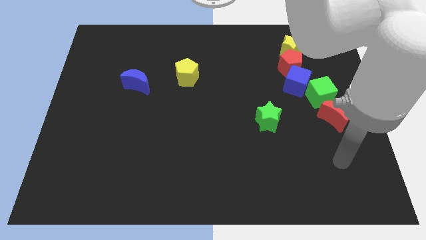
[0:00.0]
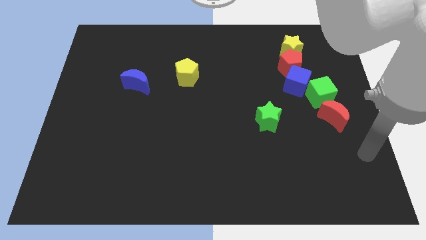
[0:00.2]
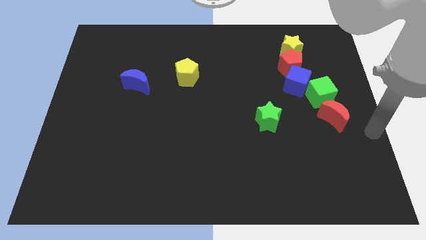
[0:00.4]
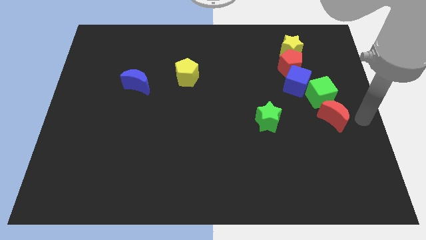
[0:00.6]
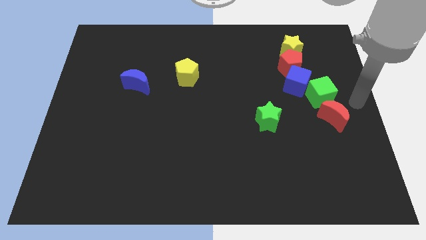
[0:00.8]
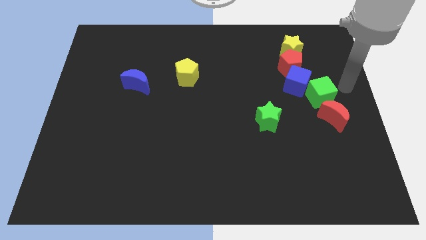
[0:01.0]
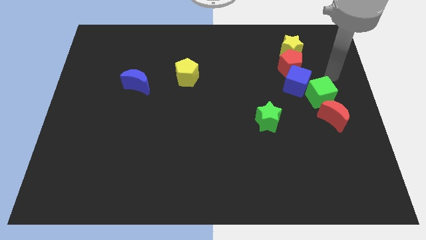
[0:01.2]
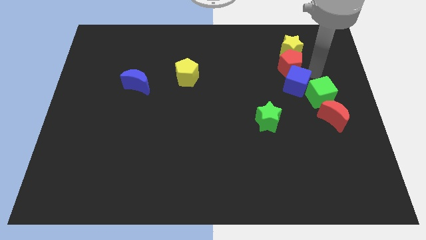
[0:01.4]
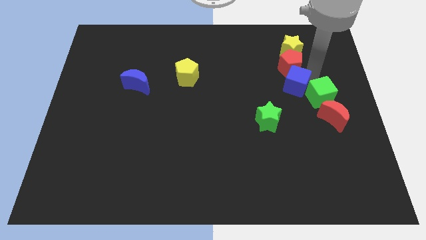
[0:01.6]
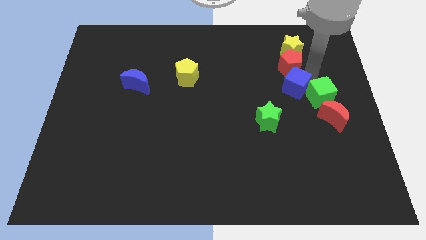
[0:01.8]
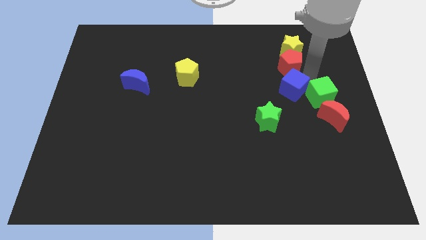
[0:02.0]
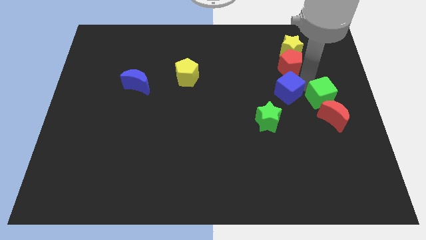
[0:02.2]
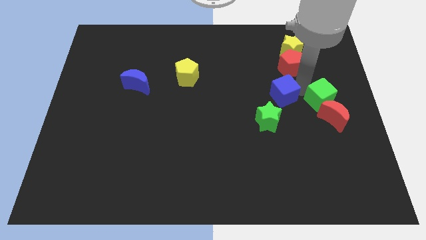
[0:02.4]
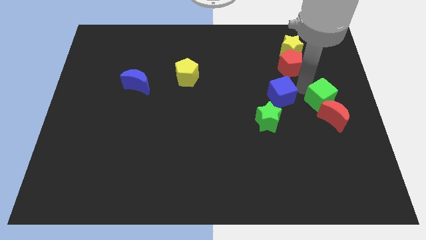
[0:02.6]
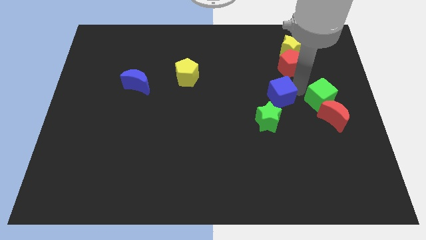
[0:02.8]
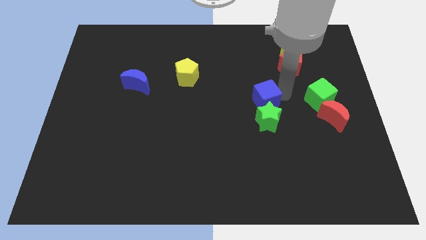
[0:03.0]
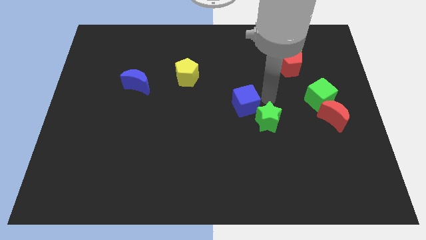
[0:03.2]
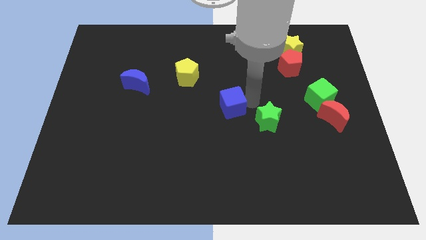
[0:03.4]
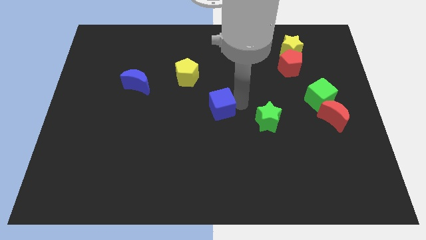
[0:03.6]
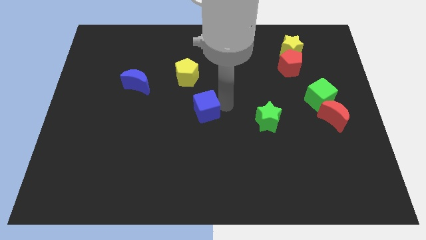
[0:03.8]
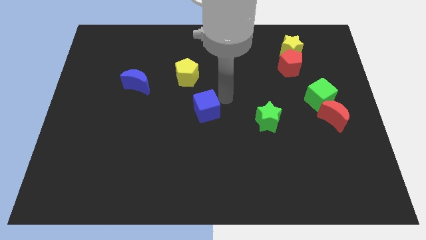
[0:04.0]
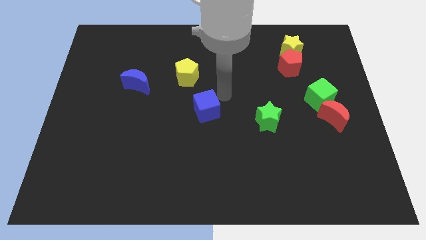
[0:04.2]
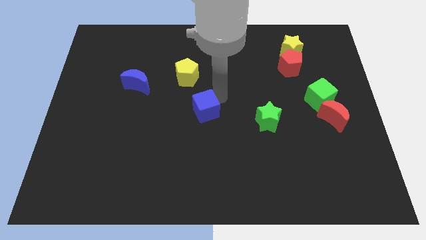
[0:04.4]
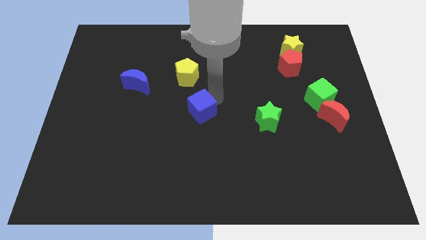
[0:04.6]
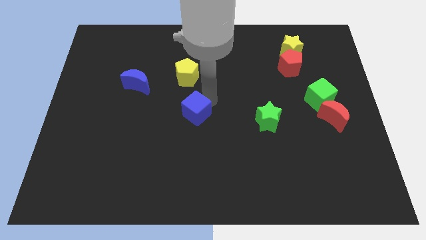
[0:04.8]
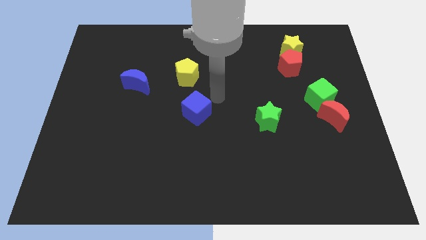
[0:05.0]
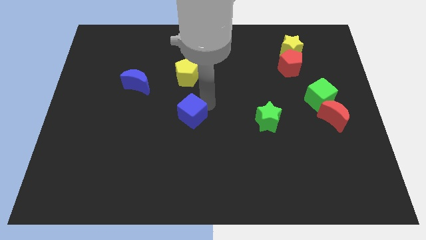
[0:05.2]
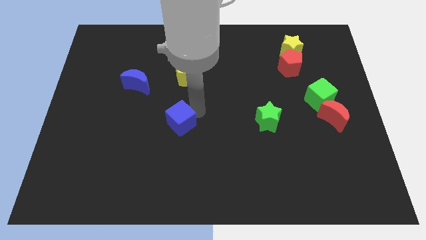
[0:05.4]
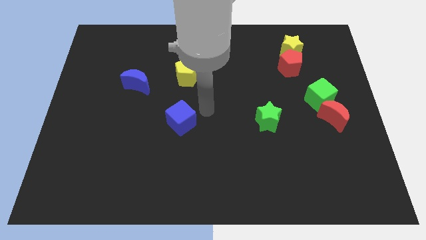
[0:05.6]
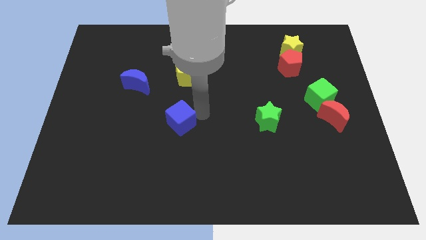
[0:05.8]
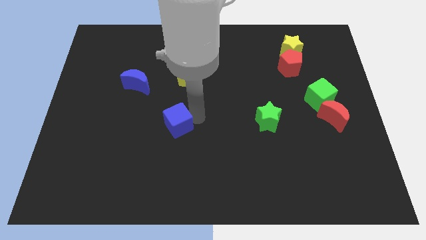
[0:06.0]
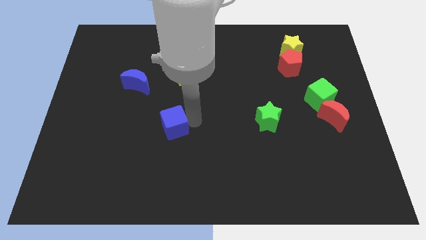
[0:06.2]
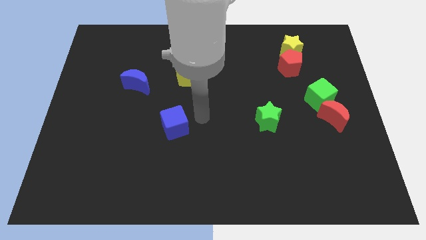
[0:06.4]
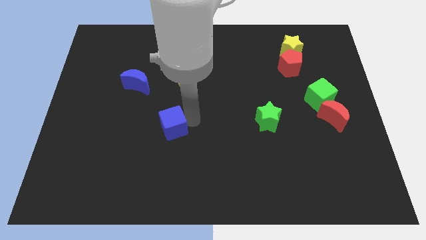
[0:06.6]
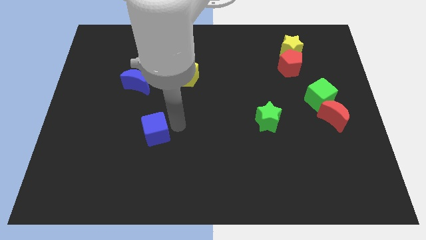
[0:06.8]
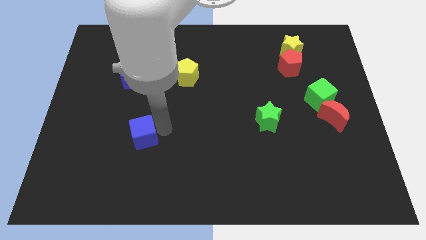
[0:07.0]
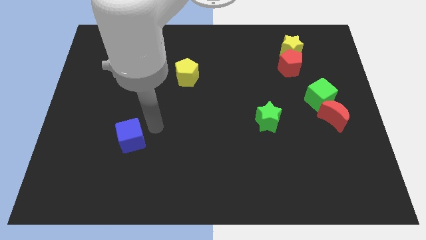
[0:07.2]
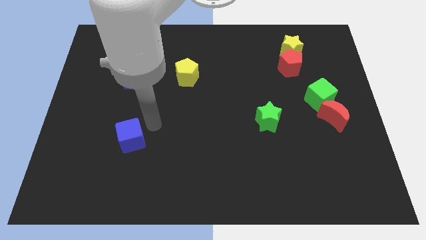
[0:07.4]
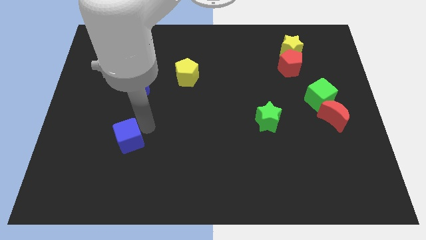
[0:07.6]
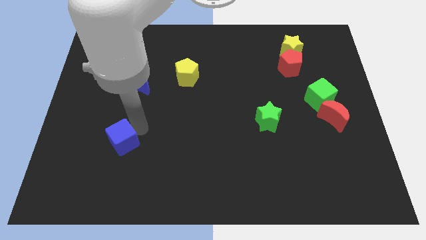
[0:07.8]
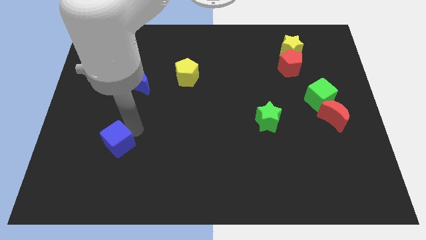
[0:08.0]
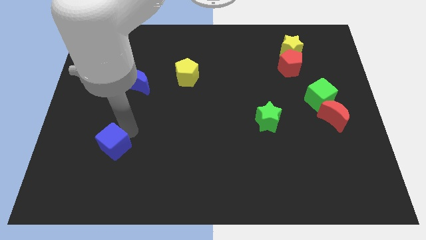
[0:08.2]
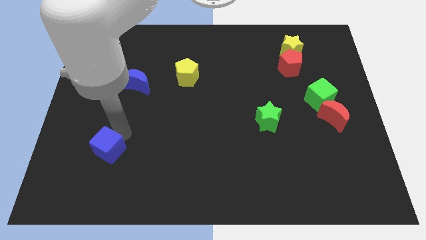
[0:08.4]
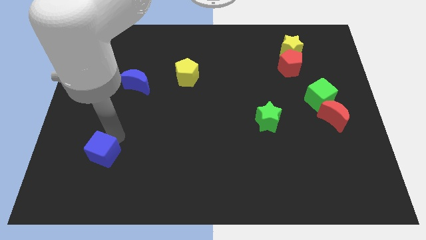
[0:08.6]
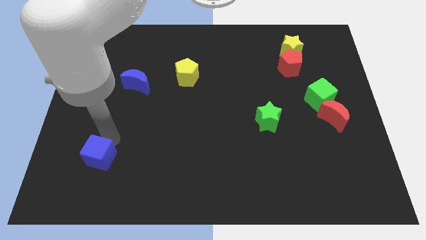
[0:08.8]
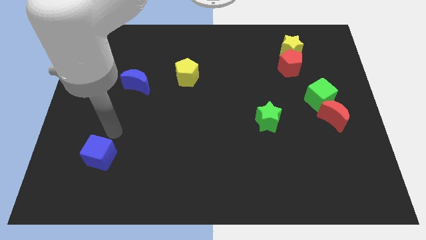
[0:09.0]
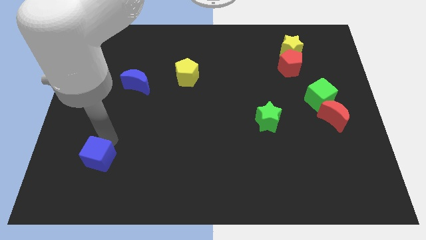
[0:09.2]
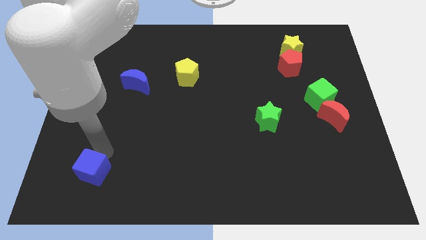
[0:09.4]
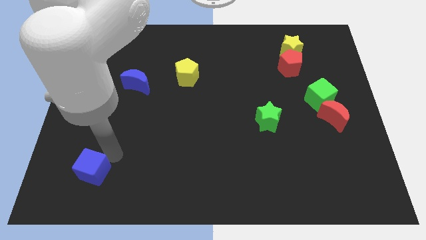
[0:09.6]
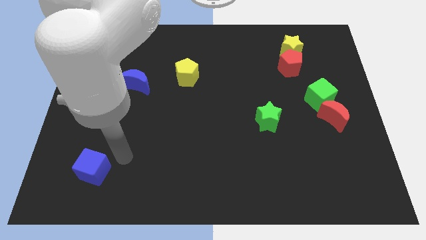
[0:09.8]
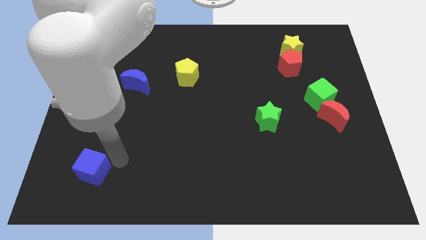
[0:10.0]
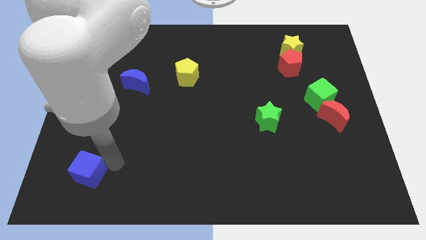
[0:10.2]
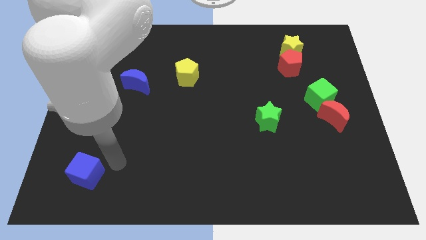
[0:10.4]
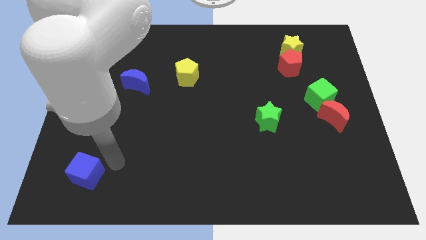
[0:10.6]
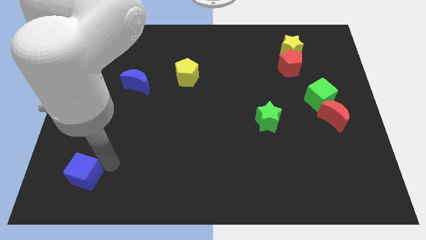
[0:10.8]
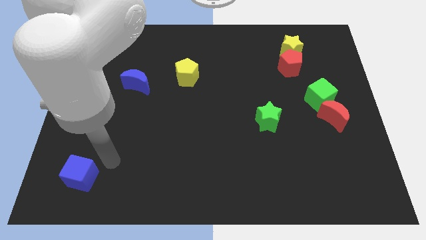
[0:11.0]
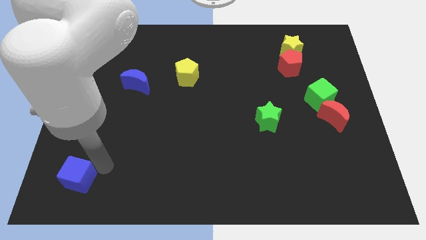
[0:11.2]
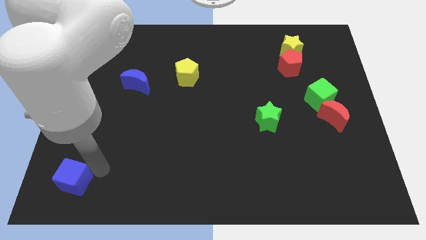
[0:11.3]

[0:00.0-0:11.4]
slide the blue cube to the bottom left of the board

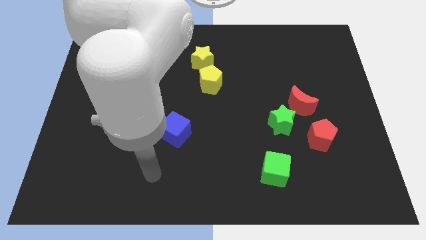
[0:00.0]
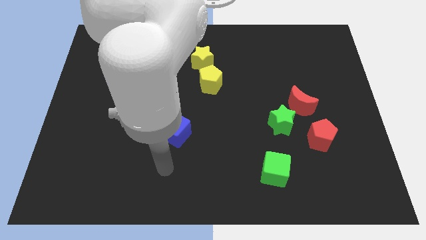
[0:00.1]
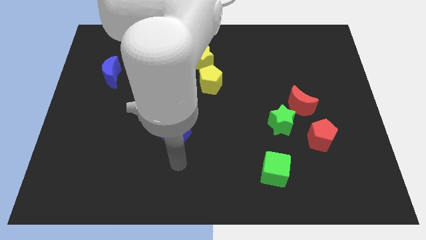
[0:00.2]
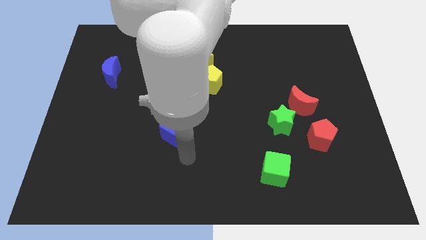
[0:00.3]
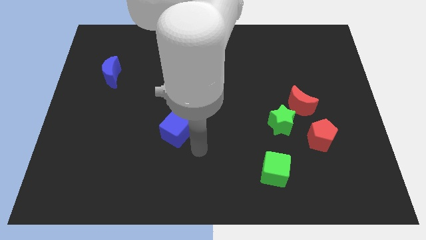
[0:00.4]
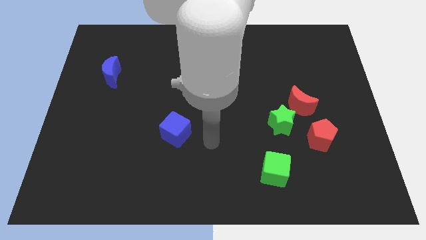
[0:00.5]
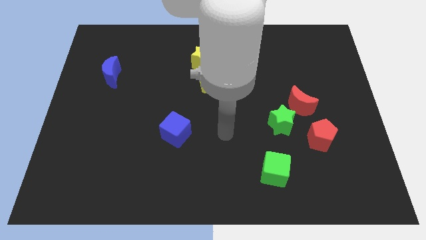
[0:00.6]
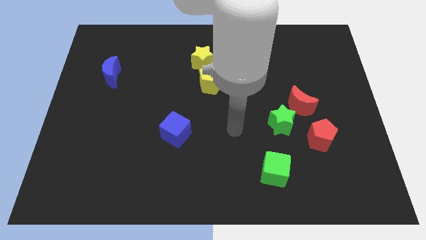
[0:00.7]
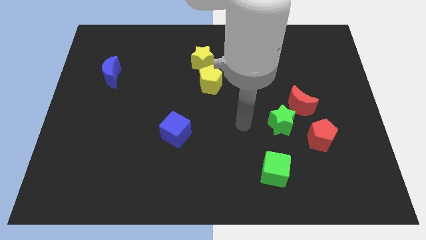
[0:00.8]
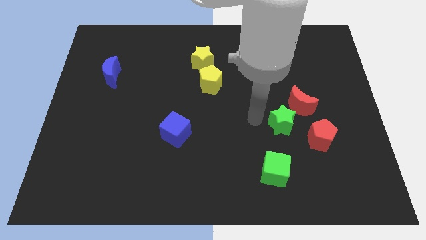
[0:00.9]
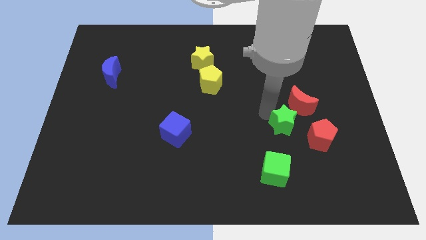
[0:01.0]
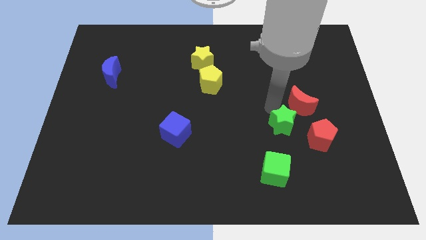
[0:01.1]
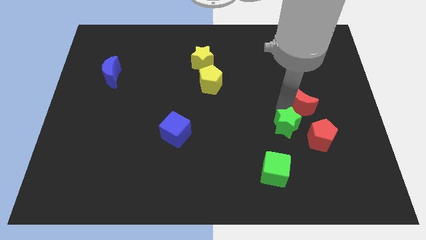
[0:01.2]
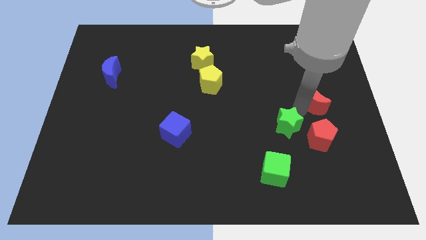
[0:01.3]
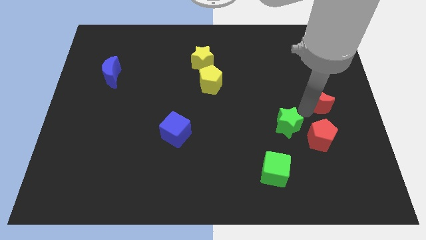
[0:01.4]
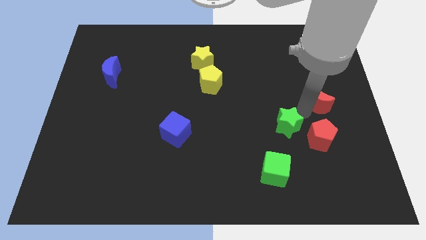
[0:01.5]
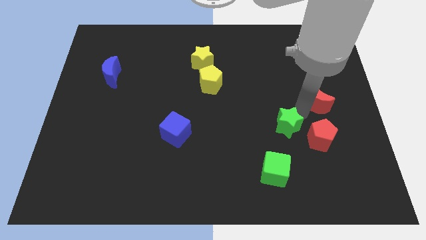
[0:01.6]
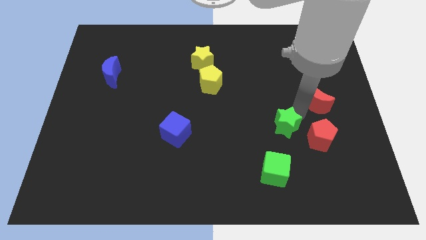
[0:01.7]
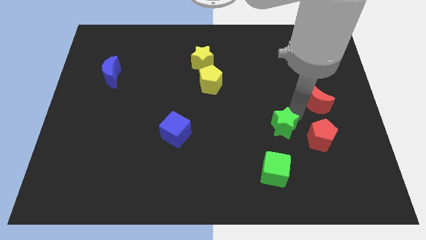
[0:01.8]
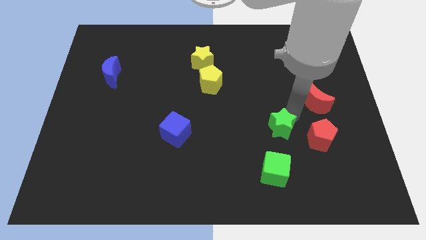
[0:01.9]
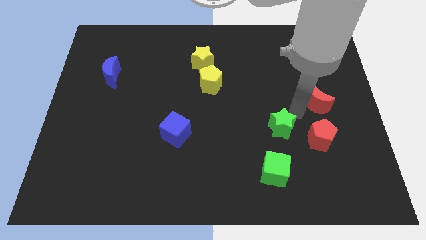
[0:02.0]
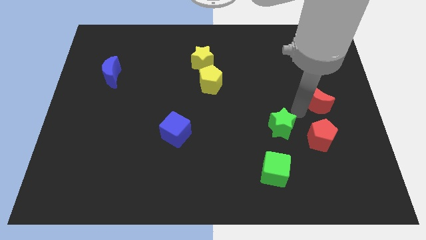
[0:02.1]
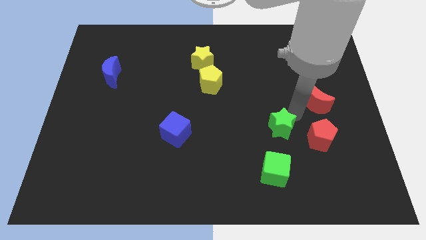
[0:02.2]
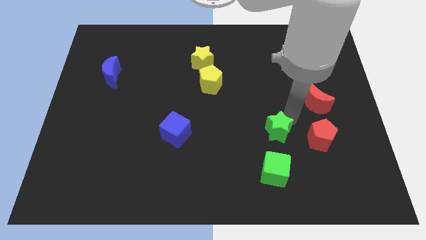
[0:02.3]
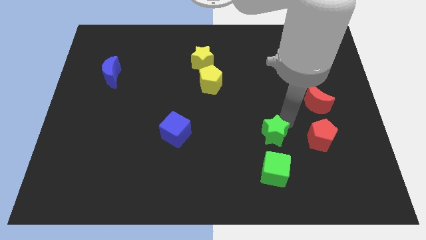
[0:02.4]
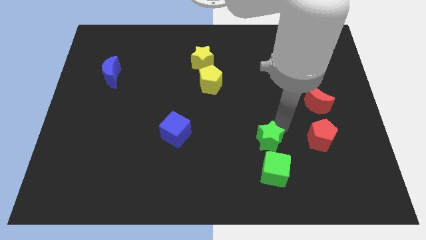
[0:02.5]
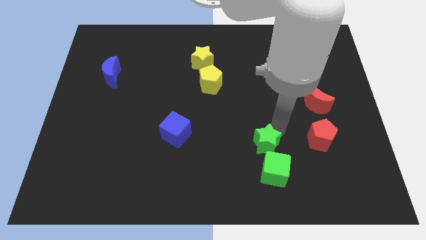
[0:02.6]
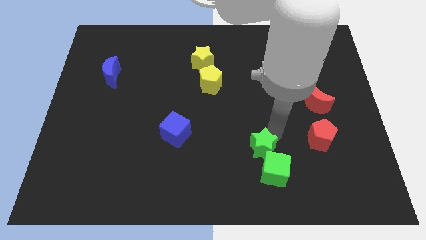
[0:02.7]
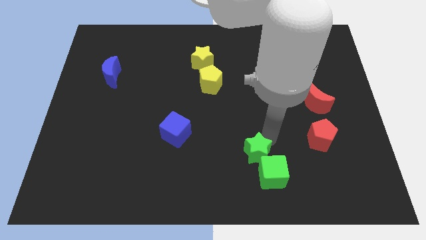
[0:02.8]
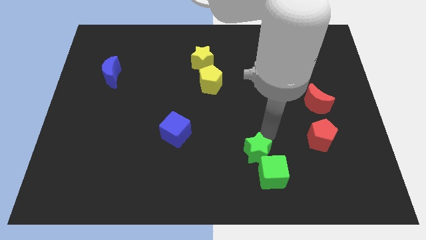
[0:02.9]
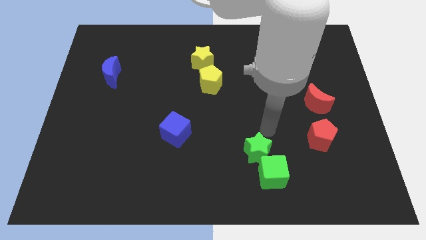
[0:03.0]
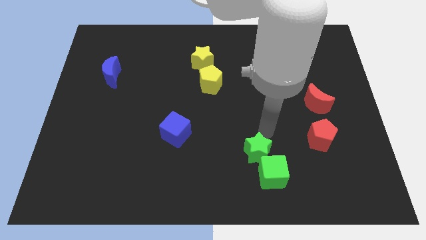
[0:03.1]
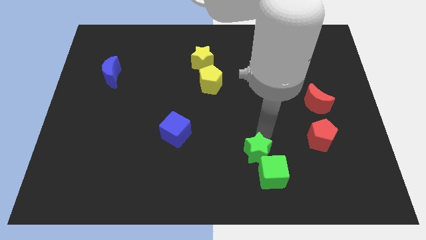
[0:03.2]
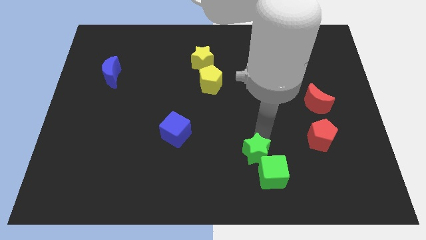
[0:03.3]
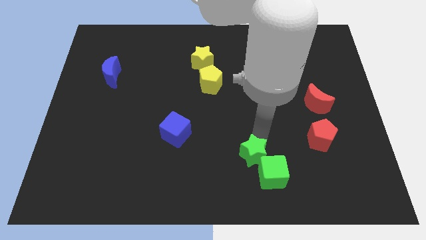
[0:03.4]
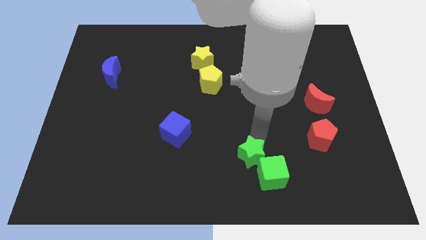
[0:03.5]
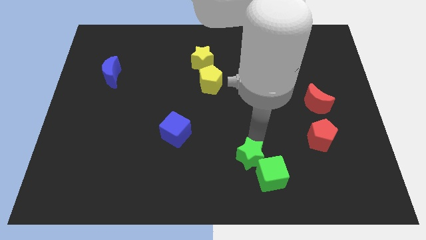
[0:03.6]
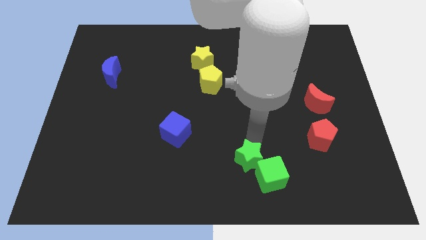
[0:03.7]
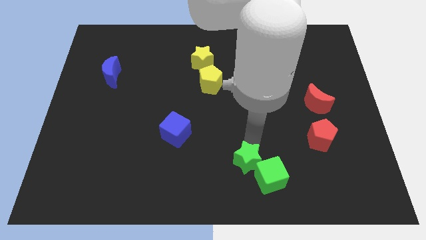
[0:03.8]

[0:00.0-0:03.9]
slide the green star to the bottom side
